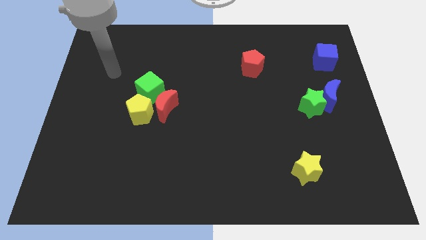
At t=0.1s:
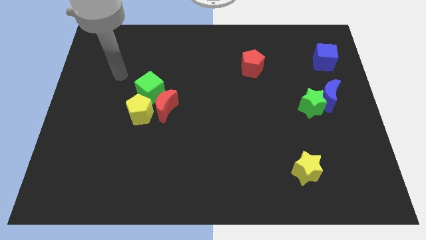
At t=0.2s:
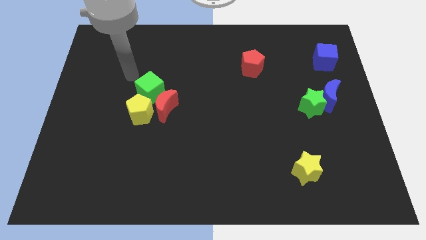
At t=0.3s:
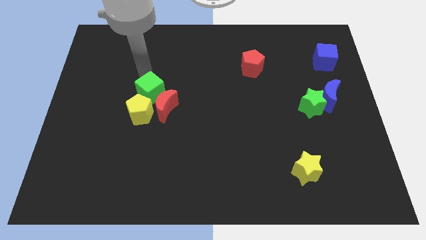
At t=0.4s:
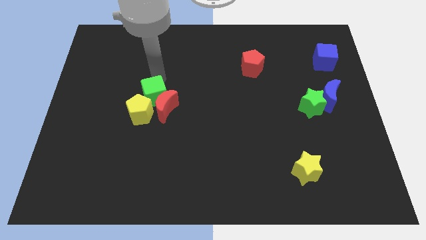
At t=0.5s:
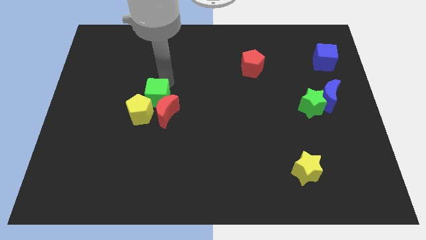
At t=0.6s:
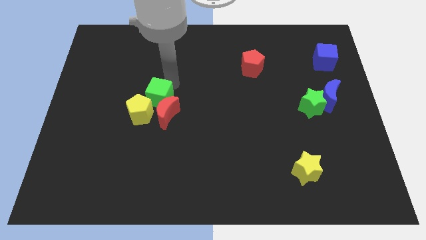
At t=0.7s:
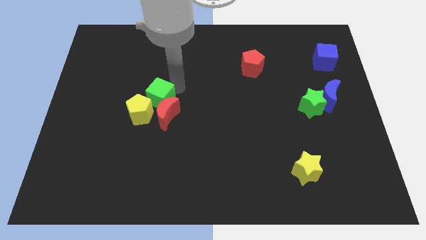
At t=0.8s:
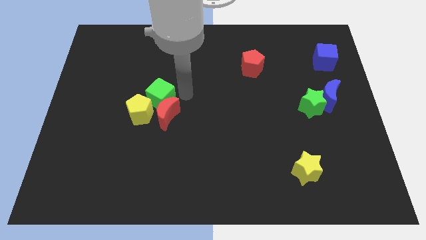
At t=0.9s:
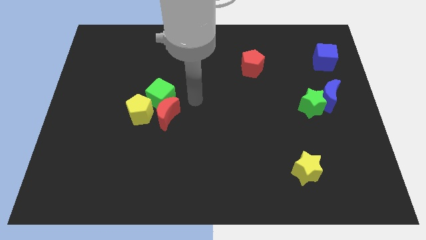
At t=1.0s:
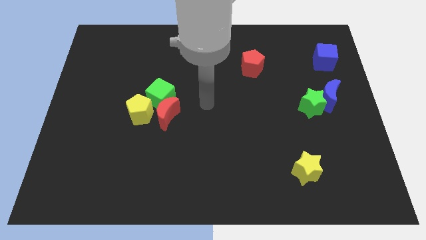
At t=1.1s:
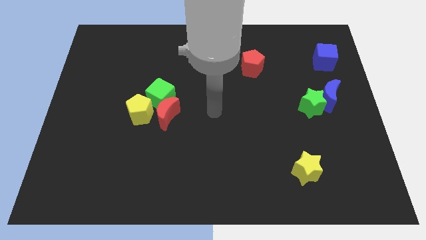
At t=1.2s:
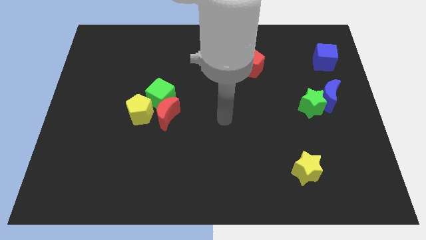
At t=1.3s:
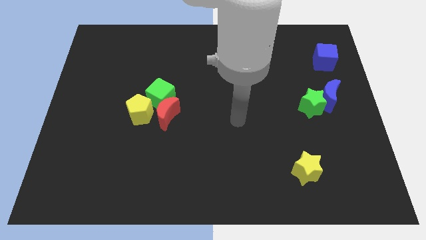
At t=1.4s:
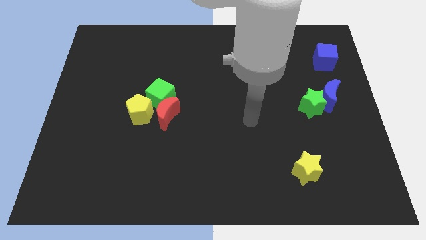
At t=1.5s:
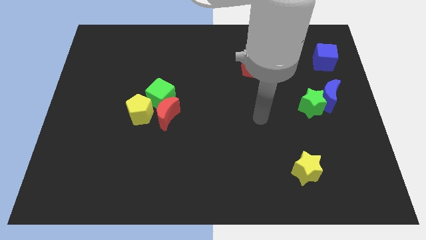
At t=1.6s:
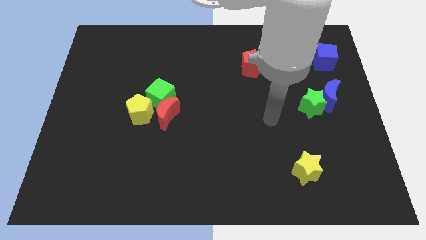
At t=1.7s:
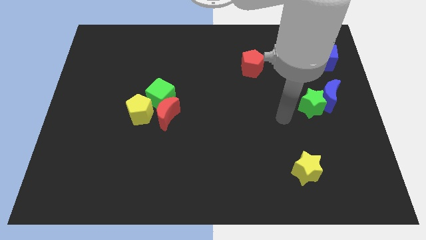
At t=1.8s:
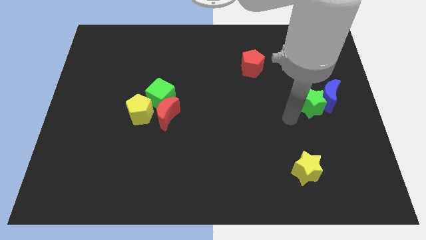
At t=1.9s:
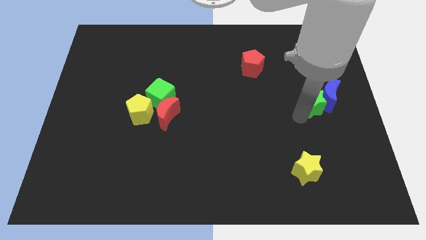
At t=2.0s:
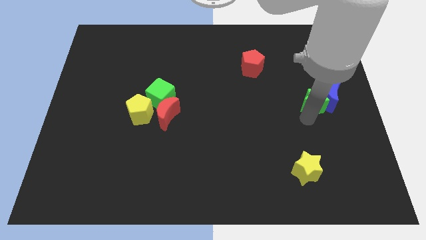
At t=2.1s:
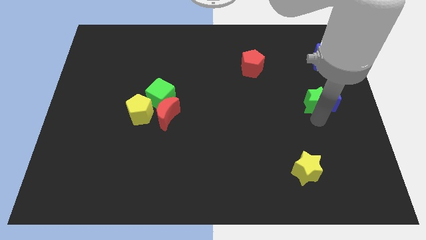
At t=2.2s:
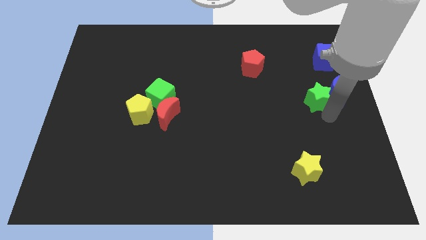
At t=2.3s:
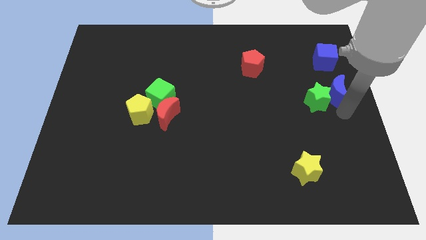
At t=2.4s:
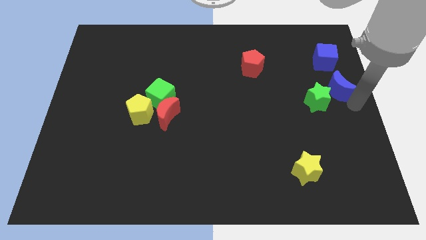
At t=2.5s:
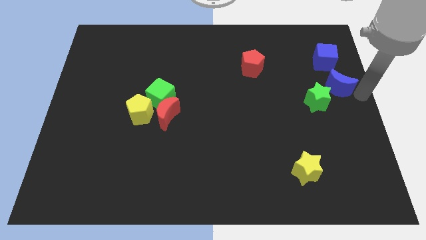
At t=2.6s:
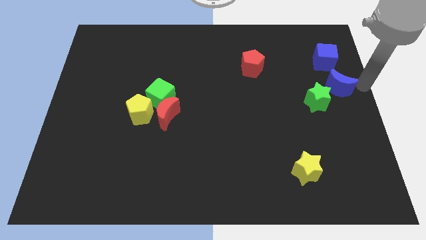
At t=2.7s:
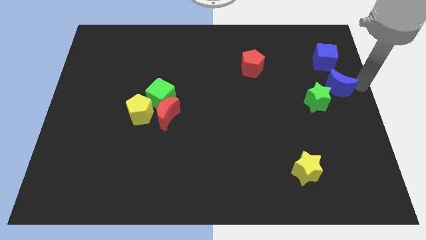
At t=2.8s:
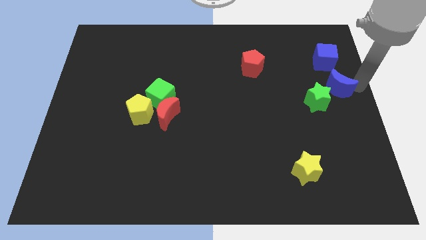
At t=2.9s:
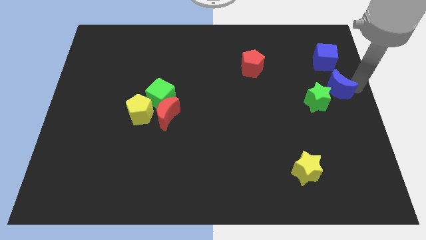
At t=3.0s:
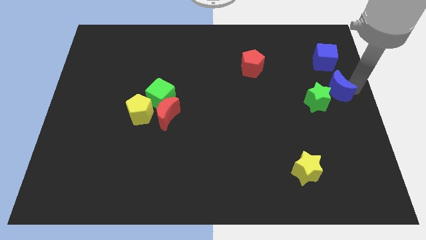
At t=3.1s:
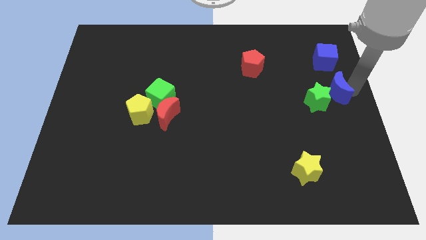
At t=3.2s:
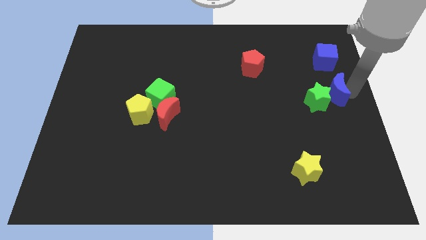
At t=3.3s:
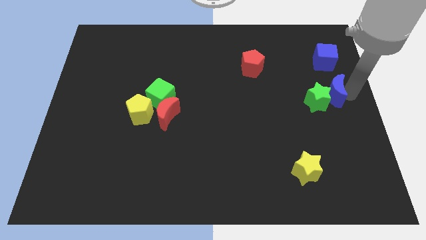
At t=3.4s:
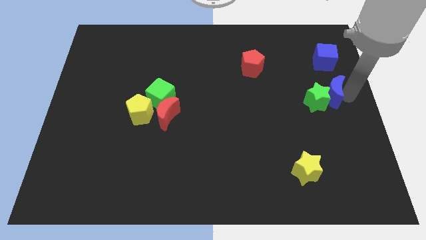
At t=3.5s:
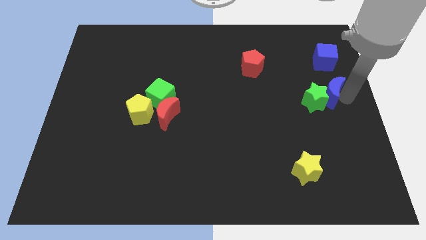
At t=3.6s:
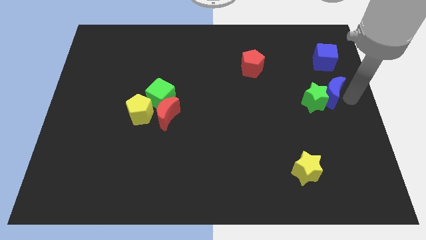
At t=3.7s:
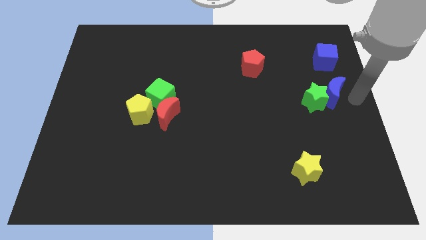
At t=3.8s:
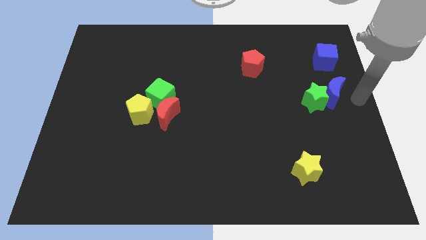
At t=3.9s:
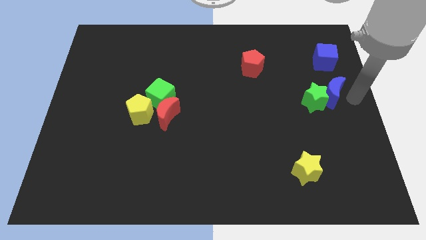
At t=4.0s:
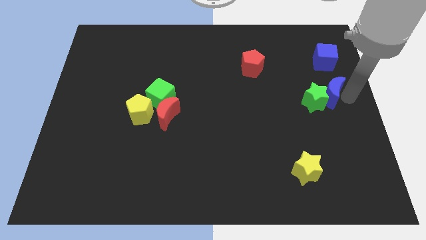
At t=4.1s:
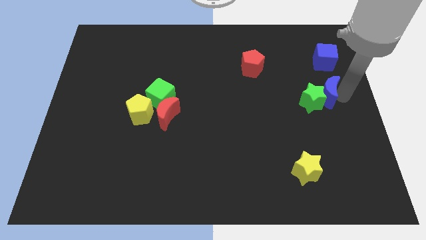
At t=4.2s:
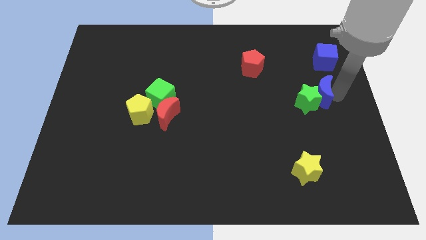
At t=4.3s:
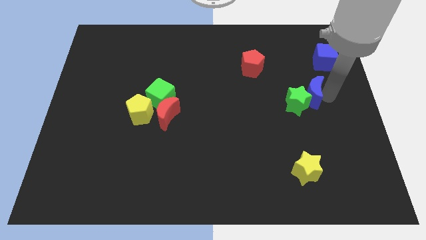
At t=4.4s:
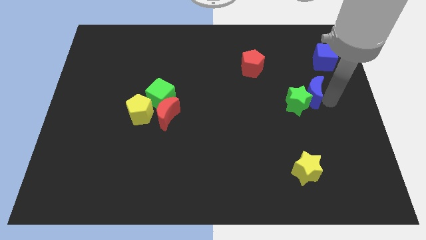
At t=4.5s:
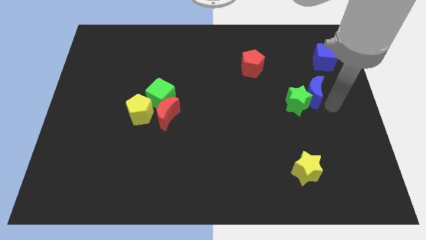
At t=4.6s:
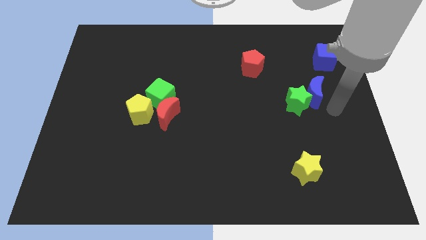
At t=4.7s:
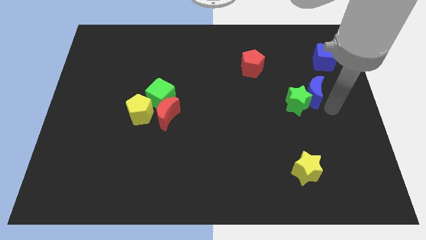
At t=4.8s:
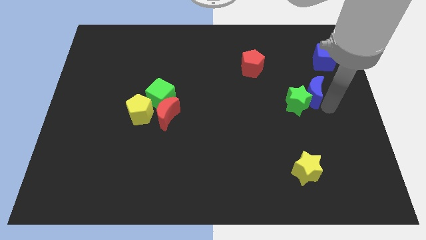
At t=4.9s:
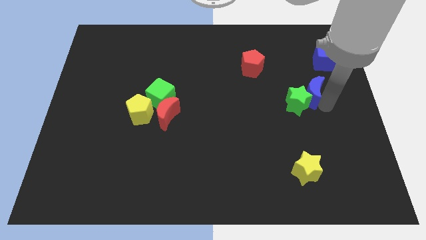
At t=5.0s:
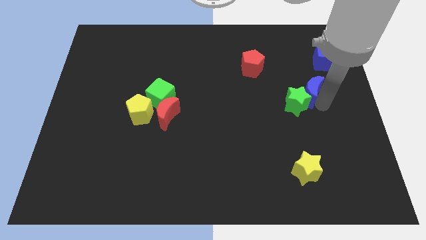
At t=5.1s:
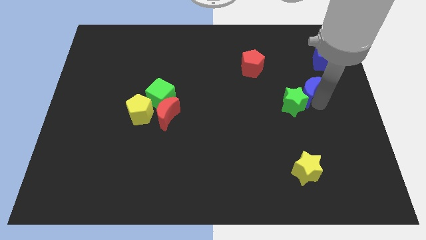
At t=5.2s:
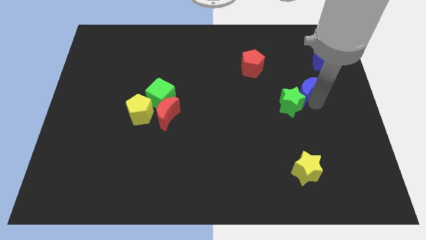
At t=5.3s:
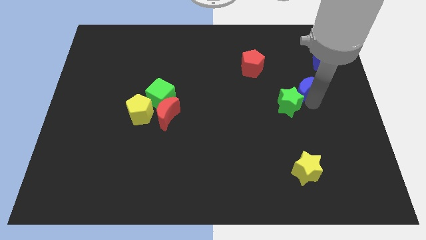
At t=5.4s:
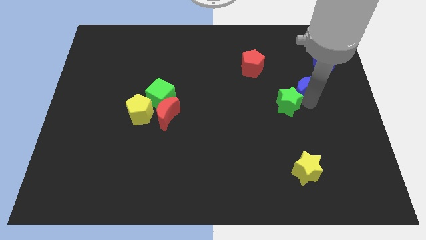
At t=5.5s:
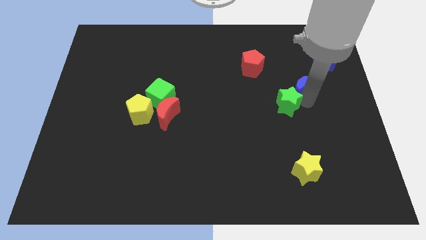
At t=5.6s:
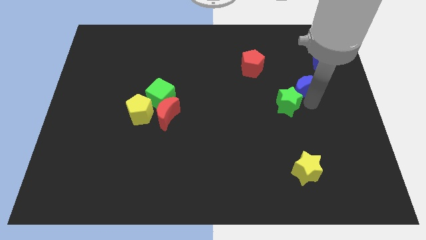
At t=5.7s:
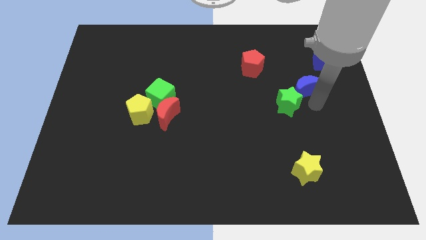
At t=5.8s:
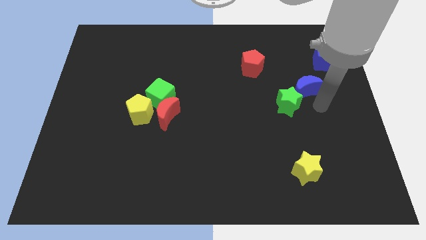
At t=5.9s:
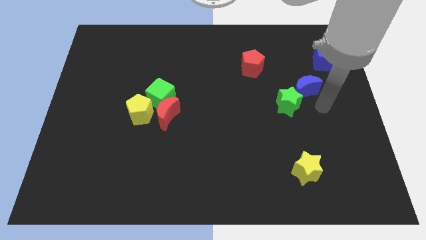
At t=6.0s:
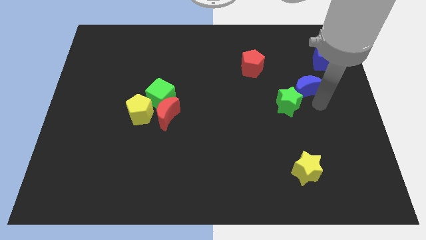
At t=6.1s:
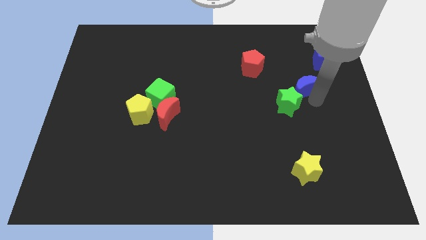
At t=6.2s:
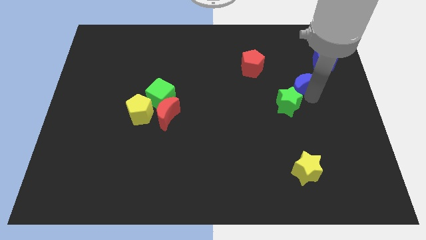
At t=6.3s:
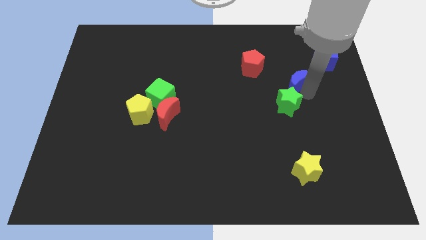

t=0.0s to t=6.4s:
slightly push the blue moon upwards and to the left

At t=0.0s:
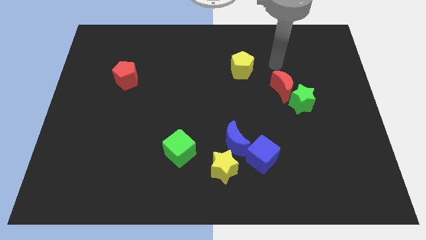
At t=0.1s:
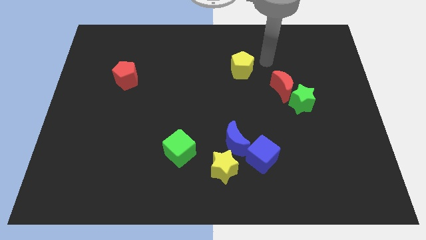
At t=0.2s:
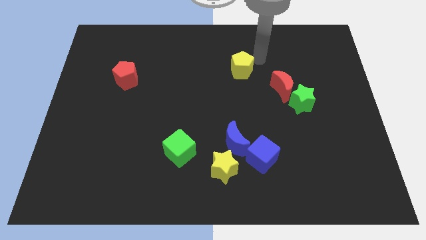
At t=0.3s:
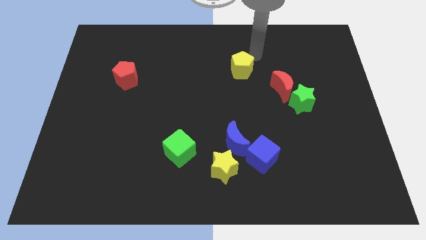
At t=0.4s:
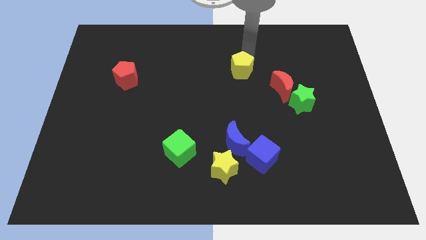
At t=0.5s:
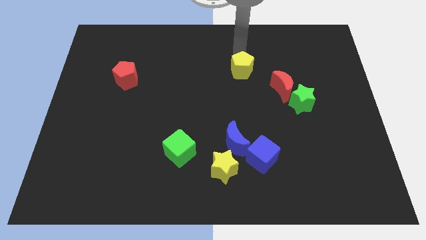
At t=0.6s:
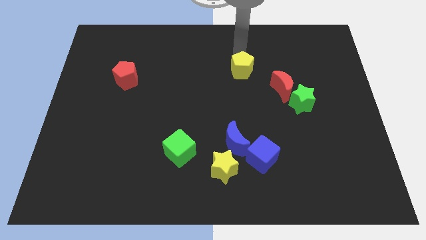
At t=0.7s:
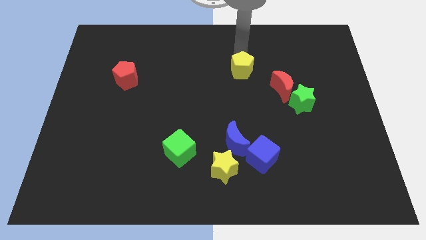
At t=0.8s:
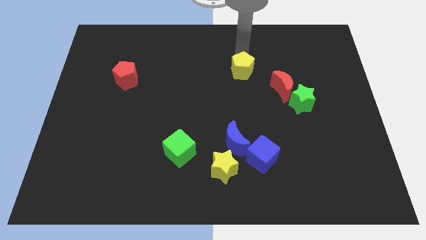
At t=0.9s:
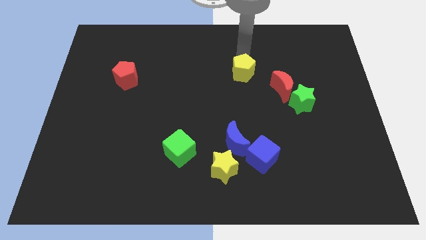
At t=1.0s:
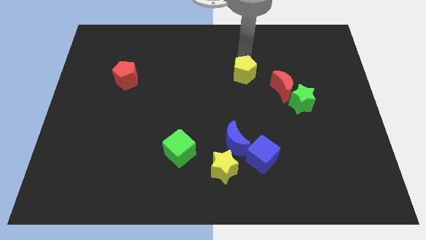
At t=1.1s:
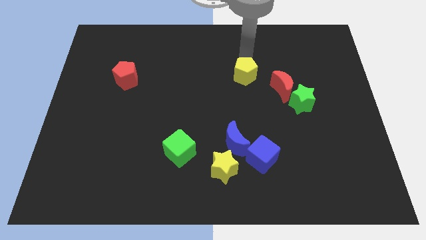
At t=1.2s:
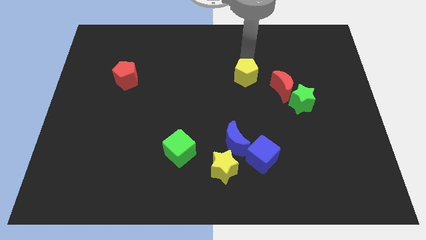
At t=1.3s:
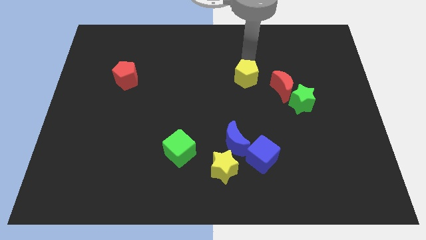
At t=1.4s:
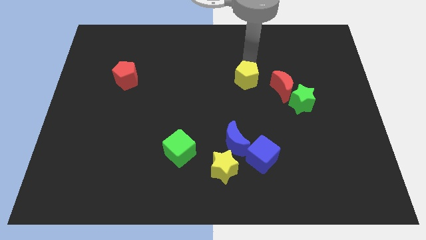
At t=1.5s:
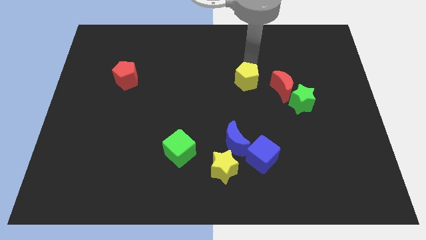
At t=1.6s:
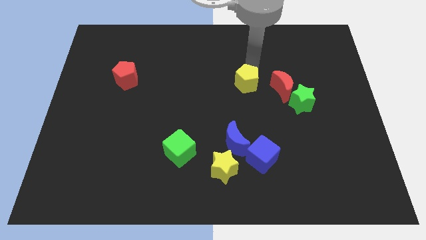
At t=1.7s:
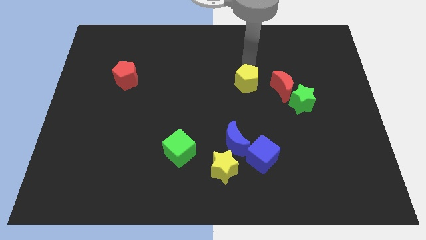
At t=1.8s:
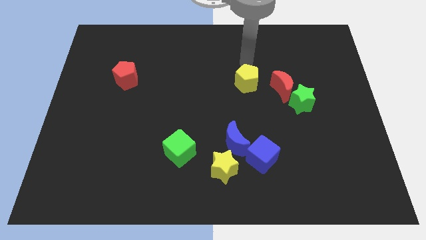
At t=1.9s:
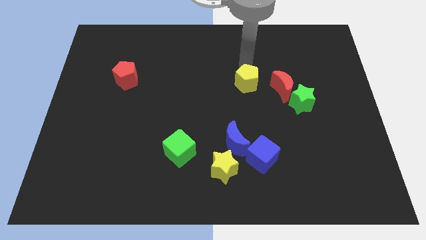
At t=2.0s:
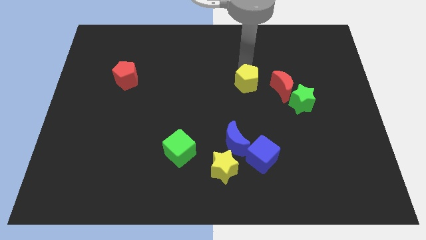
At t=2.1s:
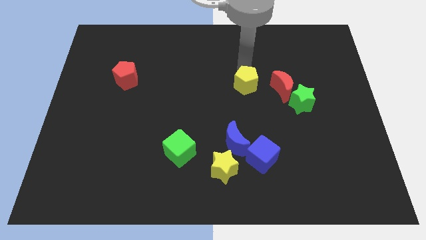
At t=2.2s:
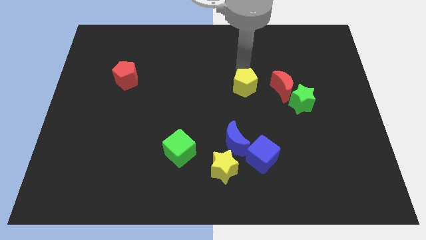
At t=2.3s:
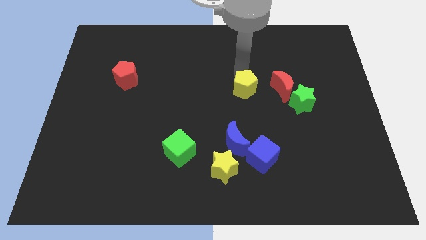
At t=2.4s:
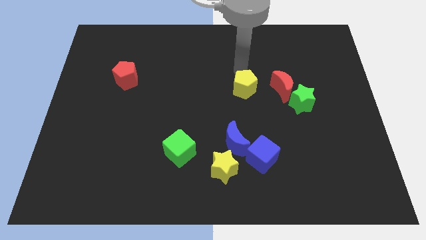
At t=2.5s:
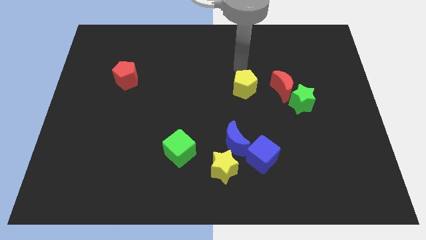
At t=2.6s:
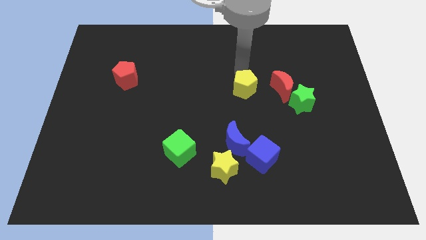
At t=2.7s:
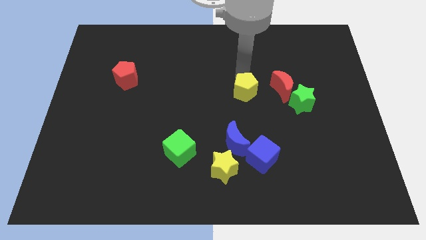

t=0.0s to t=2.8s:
push the yellow pentagon down somewhat
